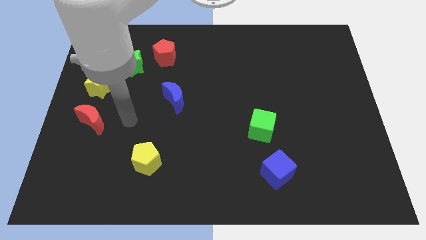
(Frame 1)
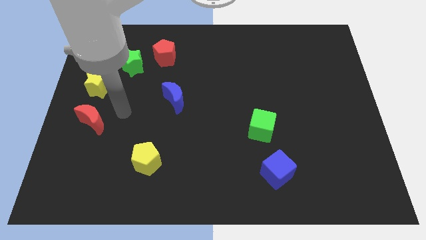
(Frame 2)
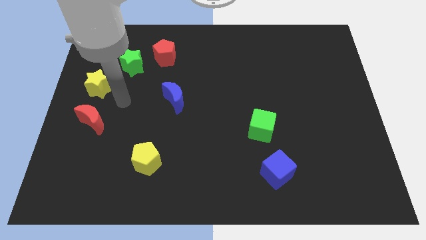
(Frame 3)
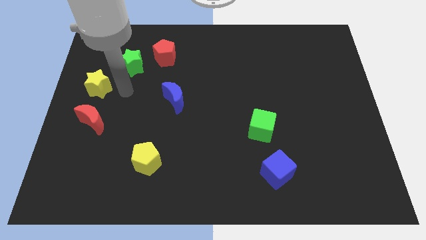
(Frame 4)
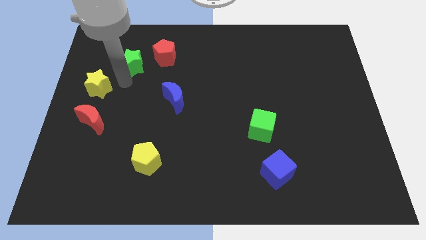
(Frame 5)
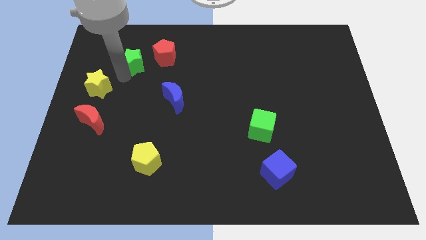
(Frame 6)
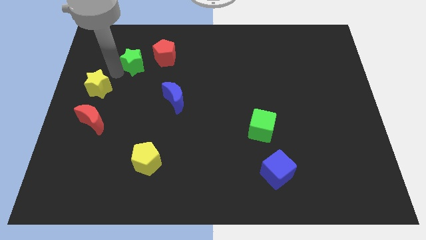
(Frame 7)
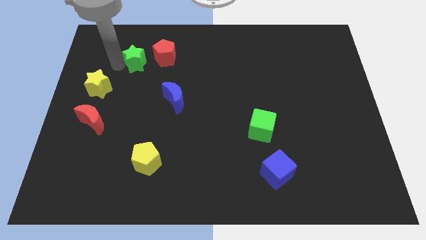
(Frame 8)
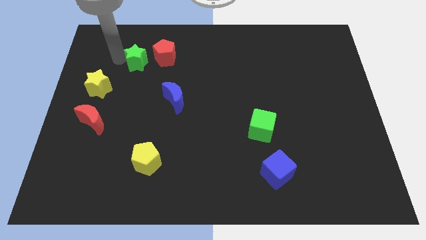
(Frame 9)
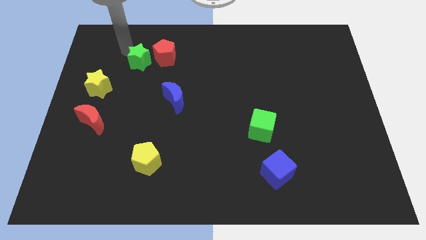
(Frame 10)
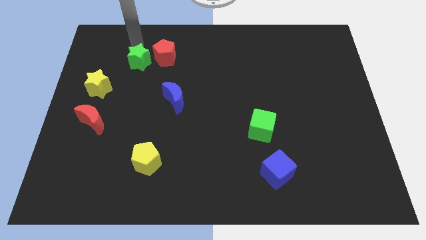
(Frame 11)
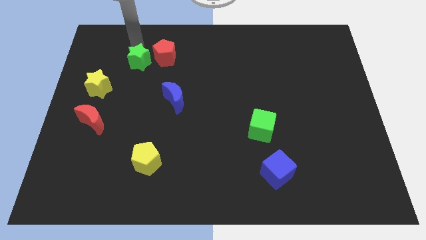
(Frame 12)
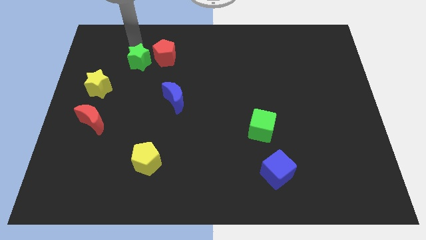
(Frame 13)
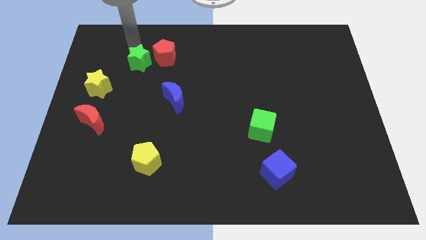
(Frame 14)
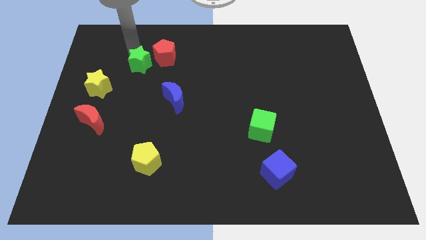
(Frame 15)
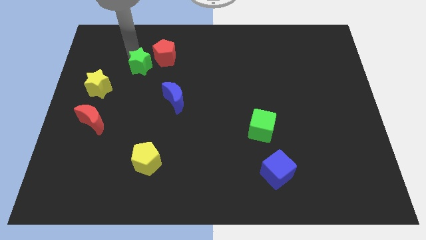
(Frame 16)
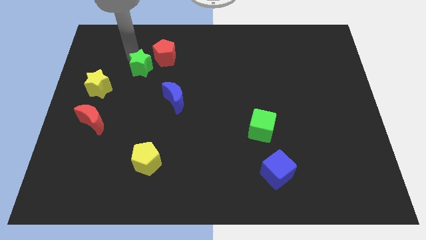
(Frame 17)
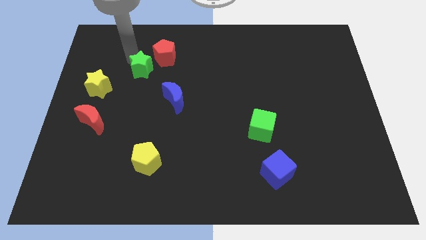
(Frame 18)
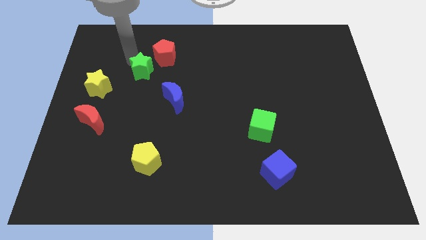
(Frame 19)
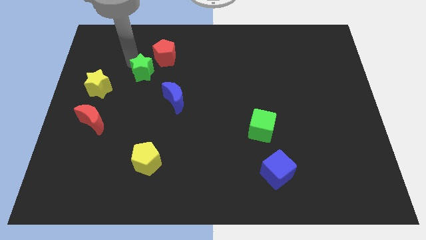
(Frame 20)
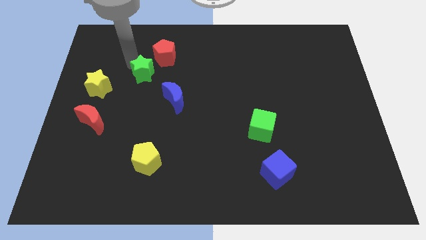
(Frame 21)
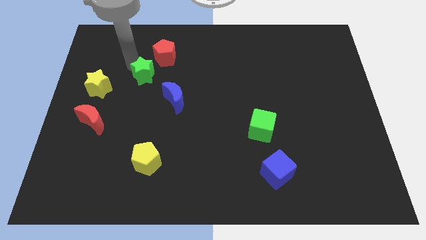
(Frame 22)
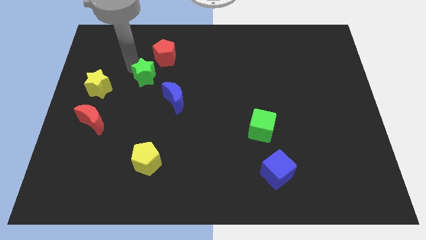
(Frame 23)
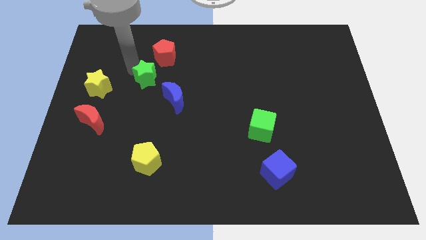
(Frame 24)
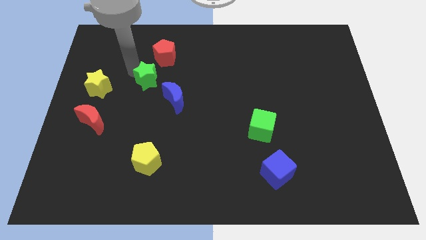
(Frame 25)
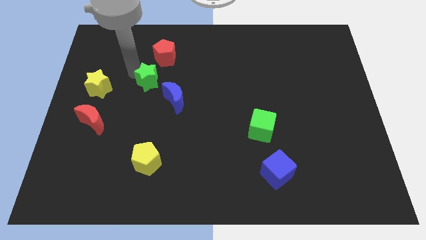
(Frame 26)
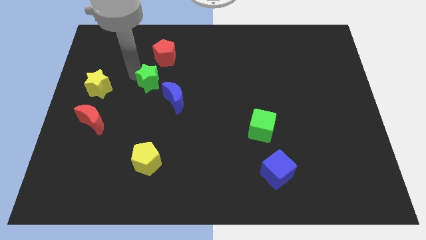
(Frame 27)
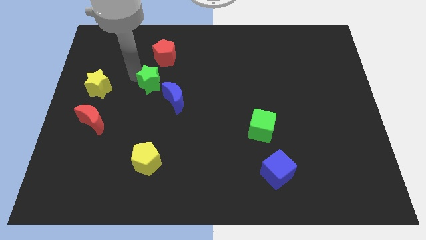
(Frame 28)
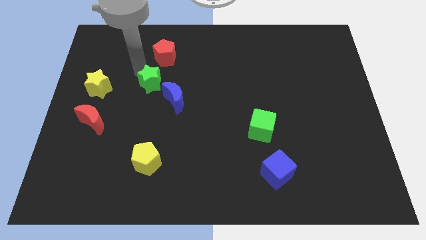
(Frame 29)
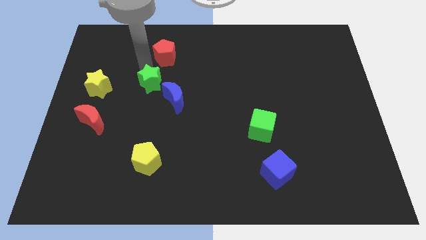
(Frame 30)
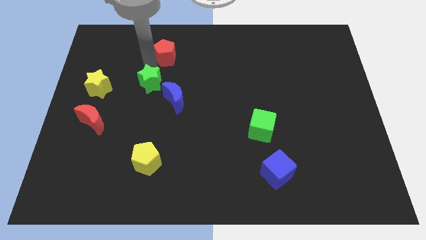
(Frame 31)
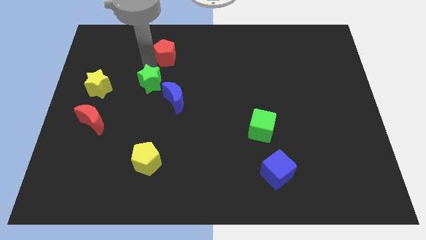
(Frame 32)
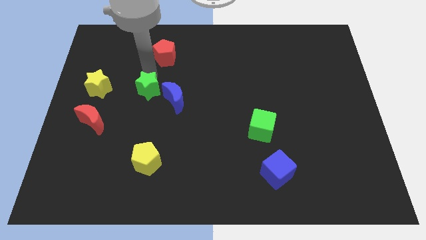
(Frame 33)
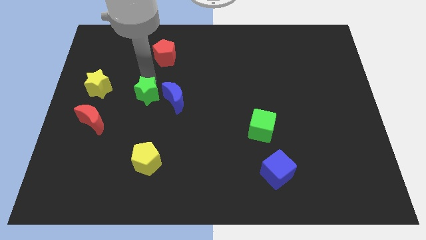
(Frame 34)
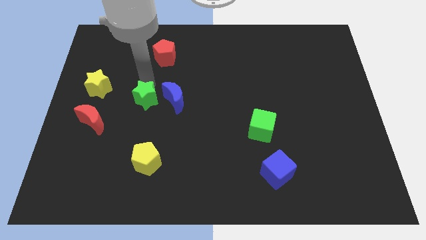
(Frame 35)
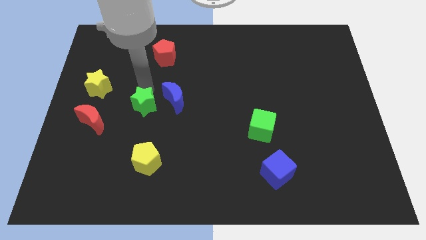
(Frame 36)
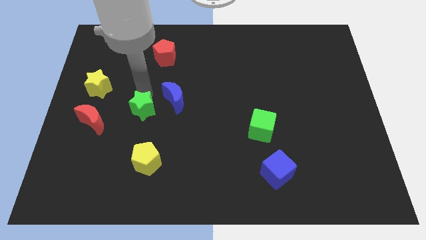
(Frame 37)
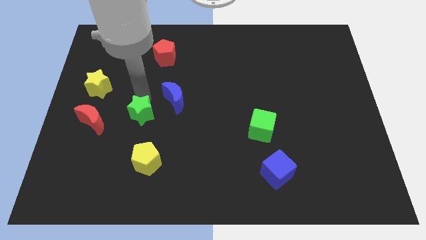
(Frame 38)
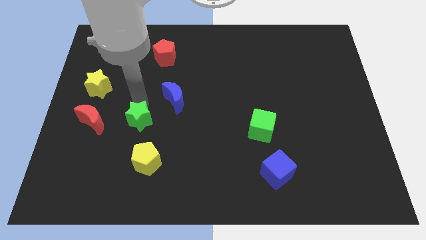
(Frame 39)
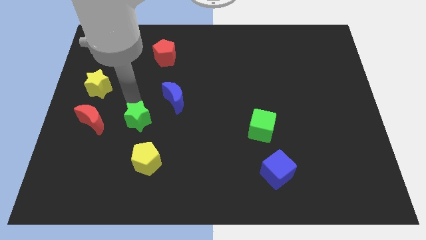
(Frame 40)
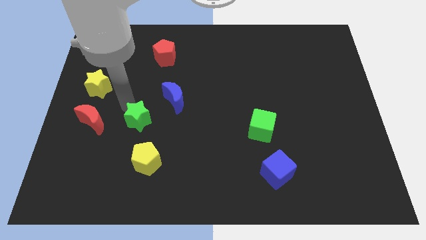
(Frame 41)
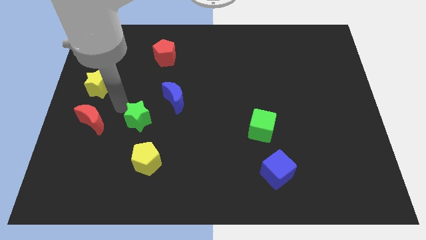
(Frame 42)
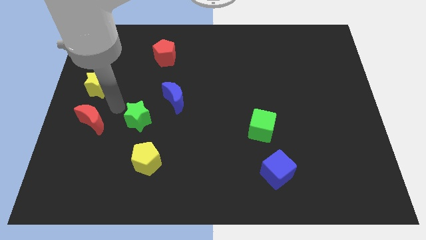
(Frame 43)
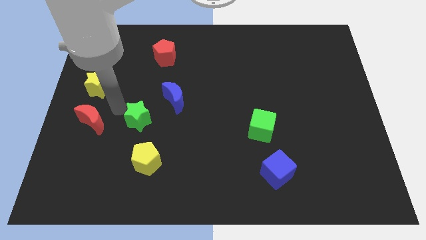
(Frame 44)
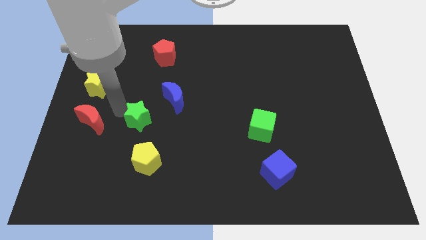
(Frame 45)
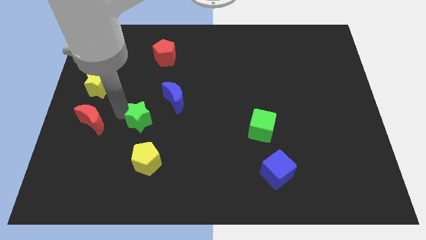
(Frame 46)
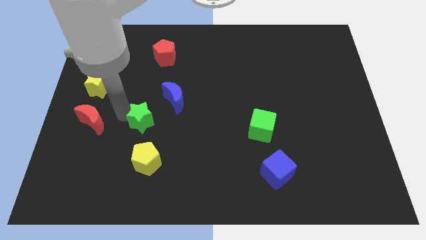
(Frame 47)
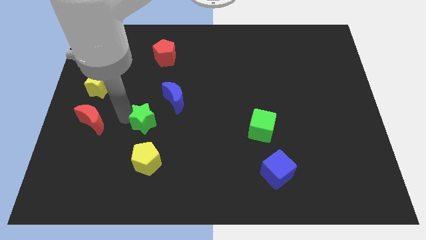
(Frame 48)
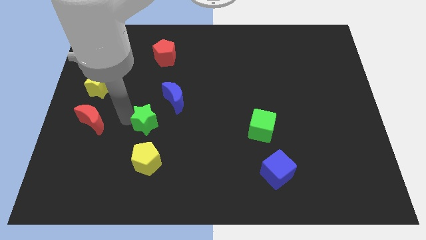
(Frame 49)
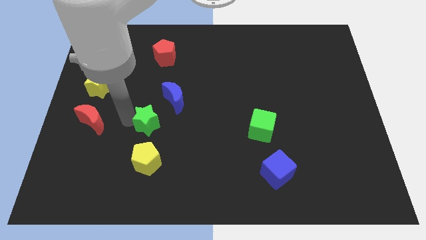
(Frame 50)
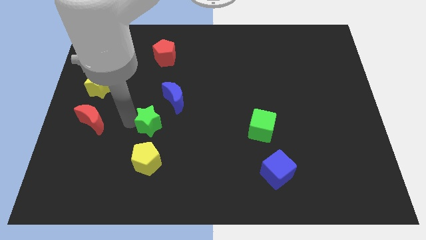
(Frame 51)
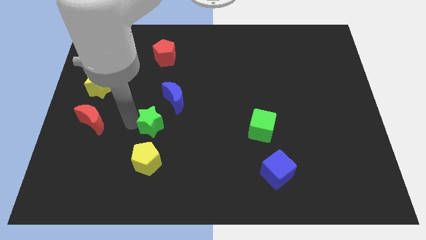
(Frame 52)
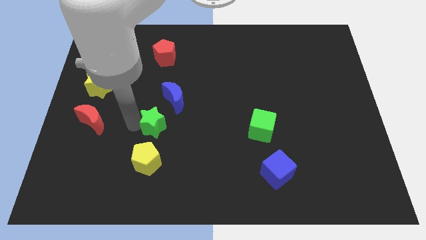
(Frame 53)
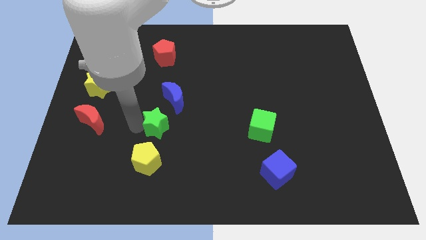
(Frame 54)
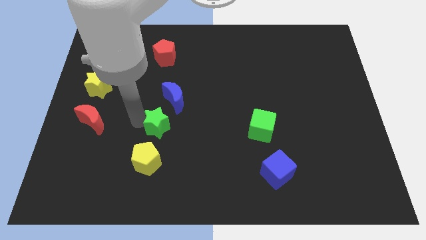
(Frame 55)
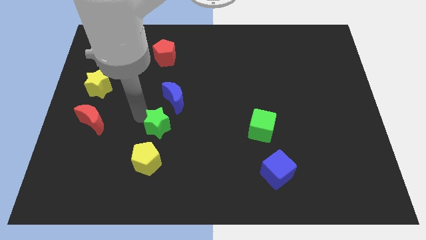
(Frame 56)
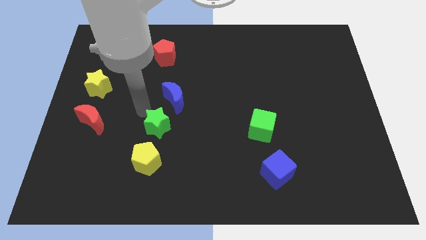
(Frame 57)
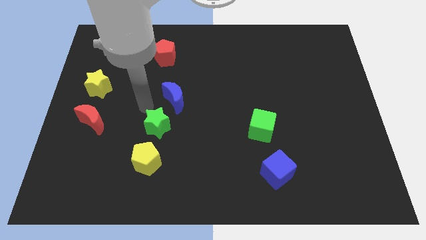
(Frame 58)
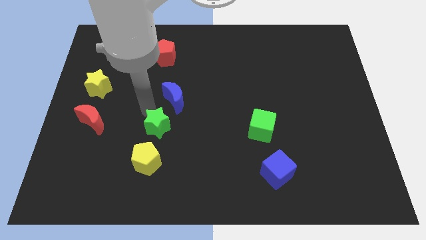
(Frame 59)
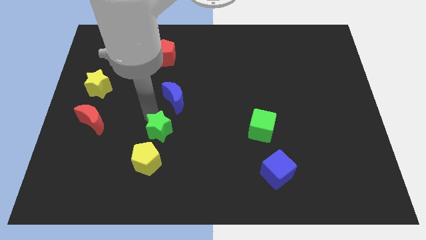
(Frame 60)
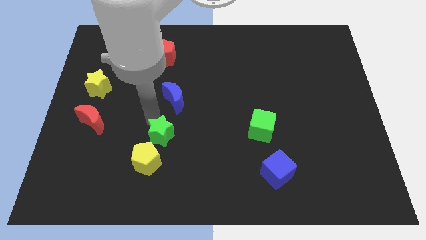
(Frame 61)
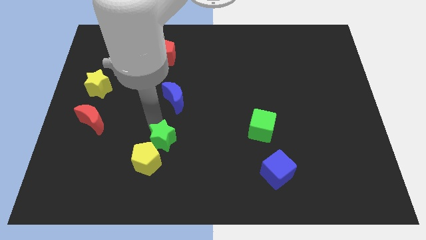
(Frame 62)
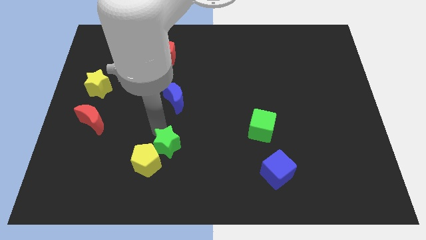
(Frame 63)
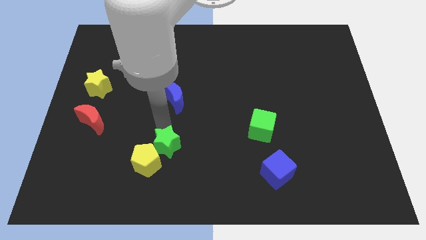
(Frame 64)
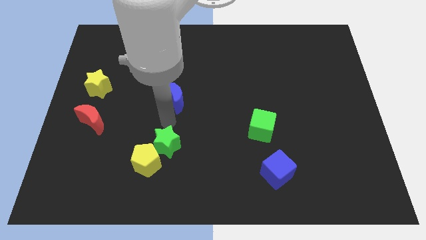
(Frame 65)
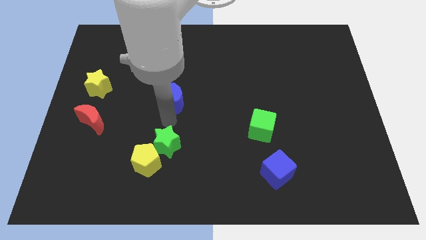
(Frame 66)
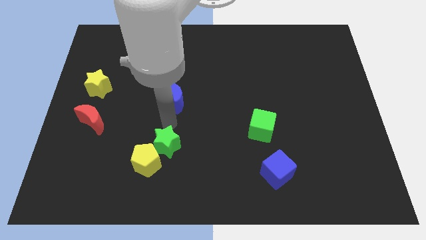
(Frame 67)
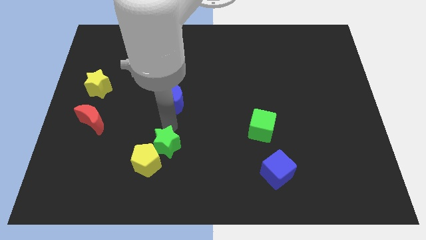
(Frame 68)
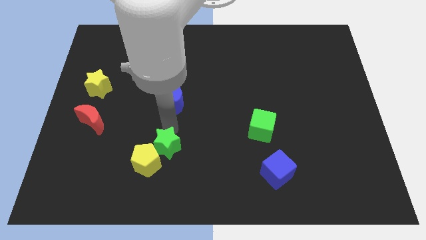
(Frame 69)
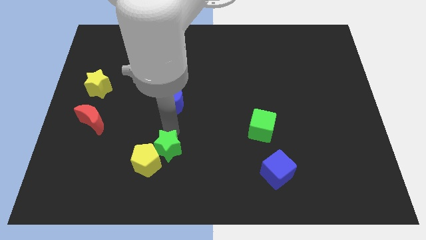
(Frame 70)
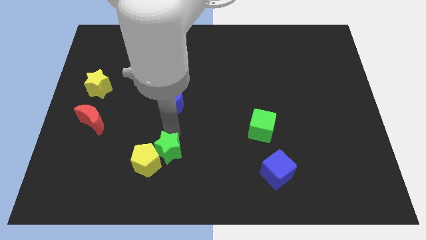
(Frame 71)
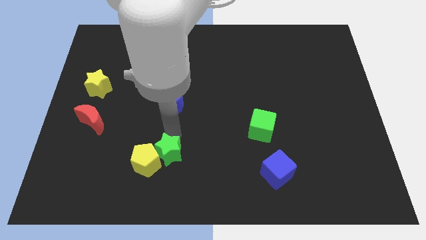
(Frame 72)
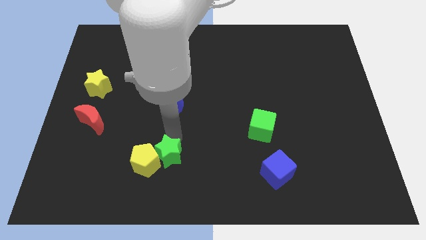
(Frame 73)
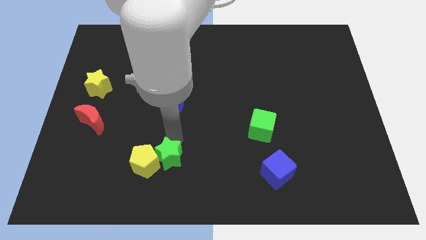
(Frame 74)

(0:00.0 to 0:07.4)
slide the green star to the bottom right side of the yellow pentagon
